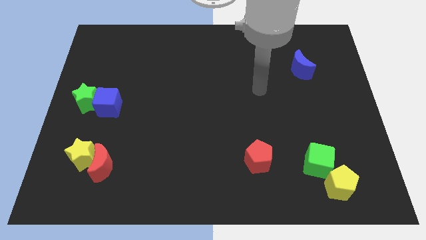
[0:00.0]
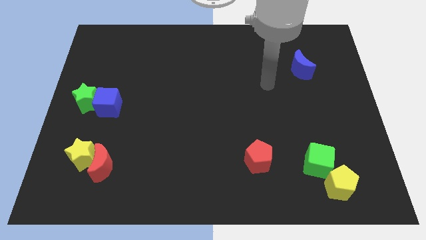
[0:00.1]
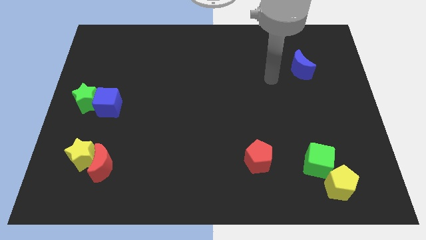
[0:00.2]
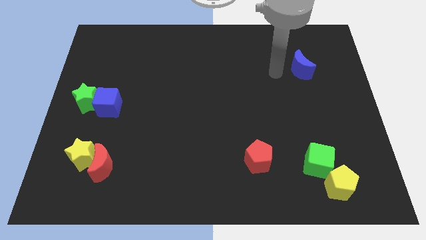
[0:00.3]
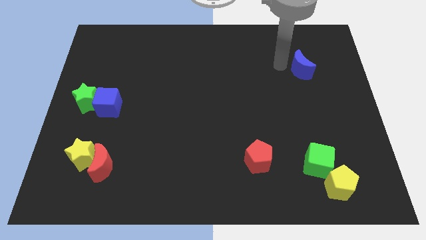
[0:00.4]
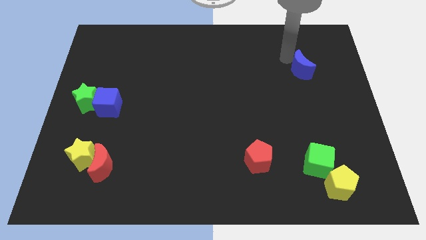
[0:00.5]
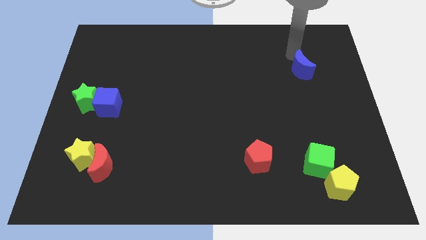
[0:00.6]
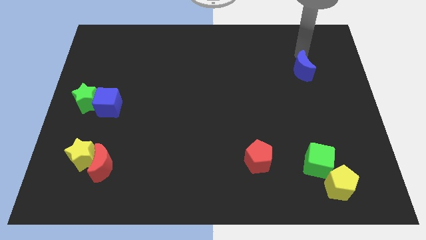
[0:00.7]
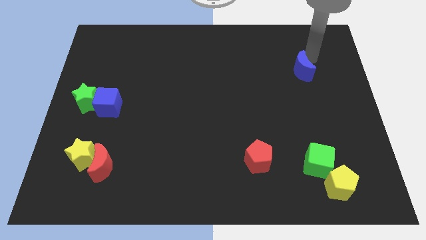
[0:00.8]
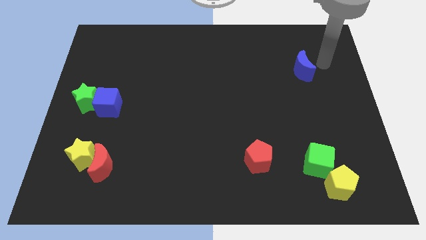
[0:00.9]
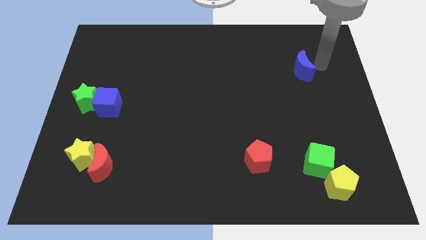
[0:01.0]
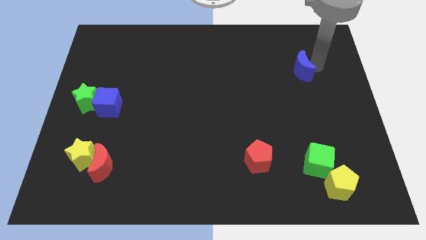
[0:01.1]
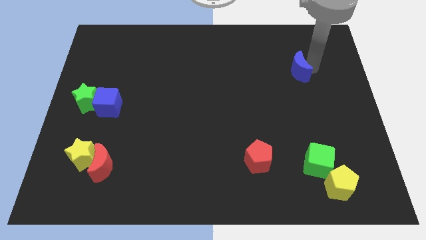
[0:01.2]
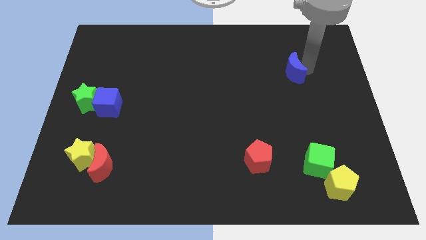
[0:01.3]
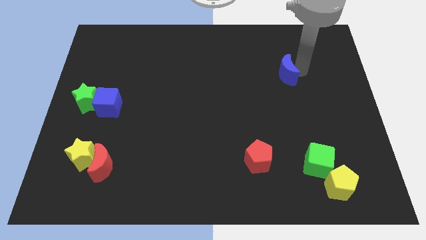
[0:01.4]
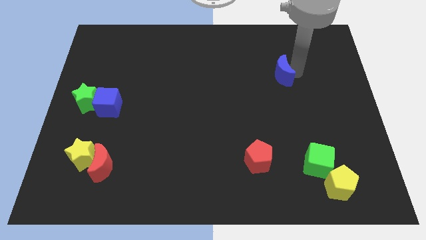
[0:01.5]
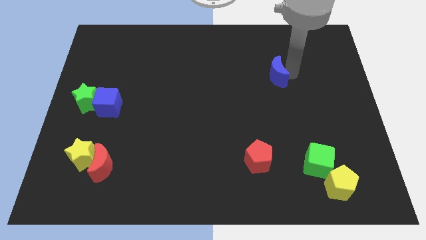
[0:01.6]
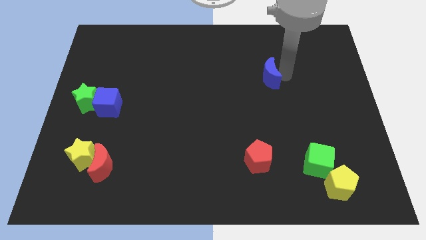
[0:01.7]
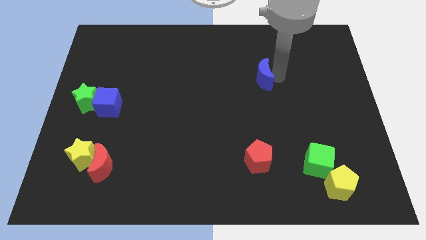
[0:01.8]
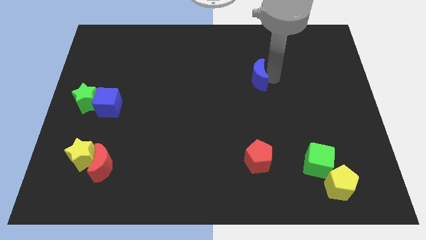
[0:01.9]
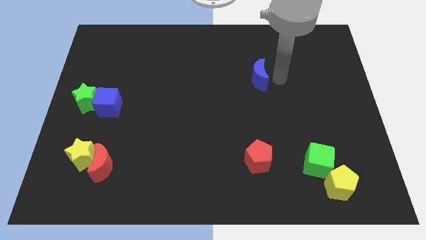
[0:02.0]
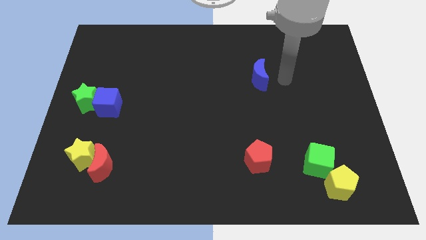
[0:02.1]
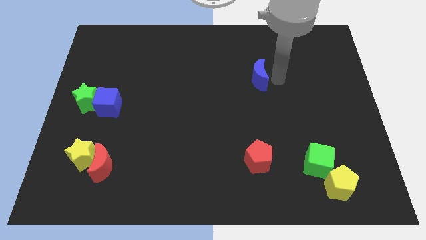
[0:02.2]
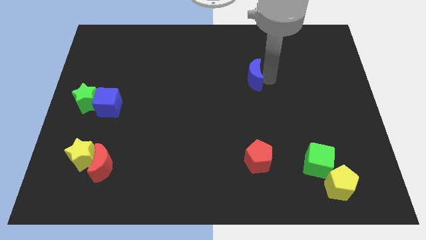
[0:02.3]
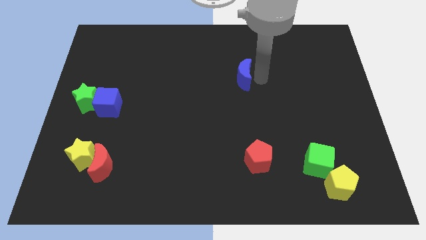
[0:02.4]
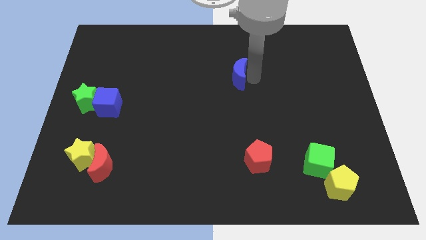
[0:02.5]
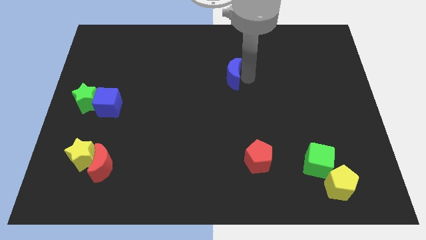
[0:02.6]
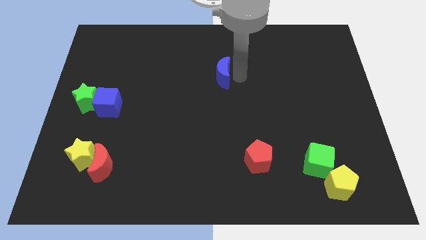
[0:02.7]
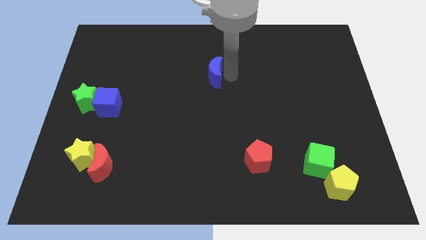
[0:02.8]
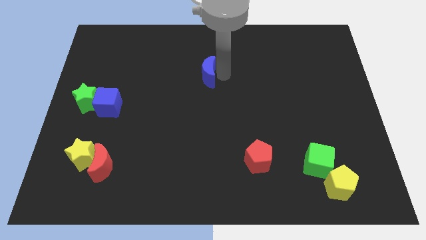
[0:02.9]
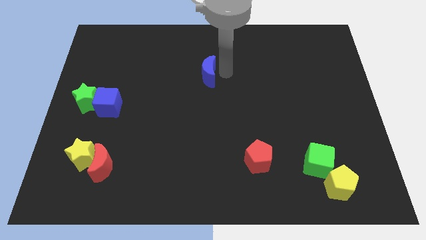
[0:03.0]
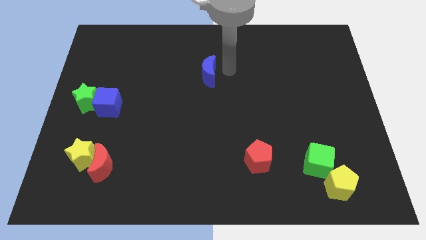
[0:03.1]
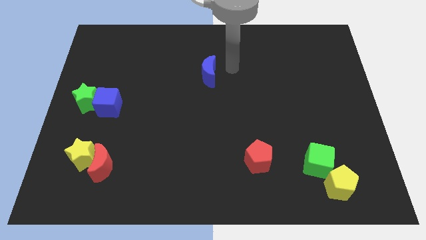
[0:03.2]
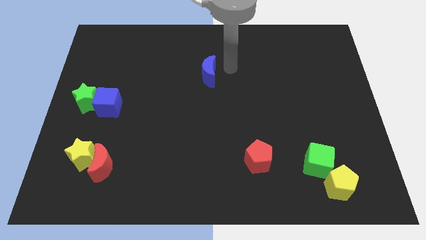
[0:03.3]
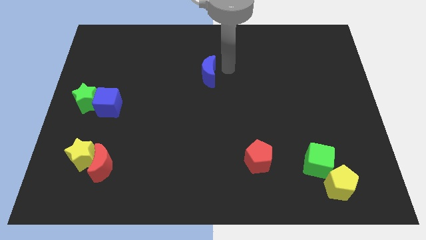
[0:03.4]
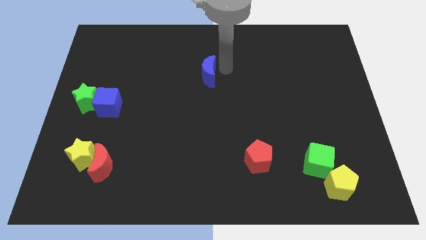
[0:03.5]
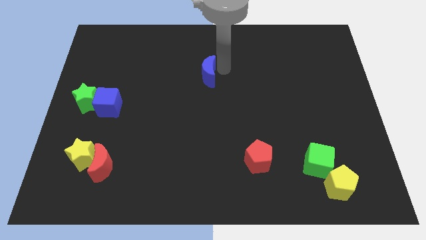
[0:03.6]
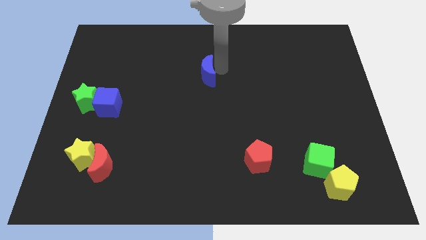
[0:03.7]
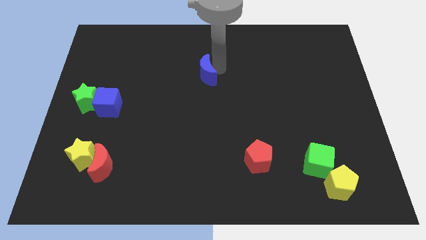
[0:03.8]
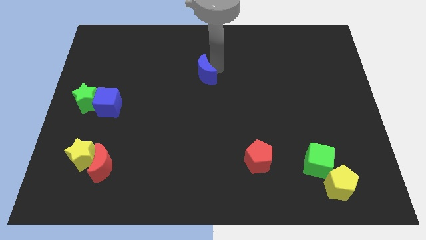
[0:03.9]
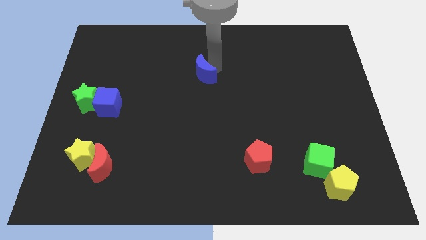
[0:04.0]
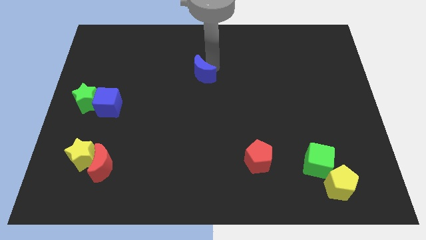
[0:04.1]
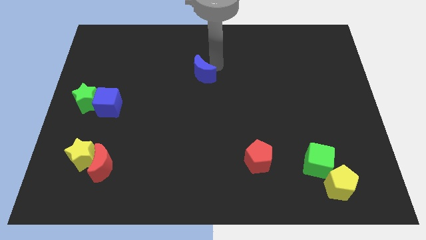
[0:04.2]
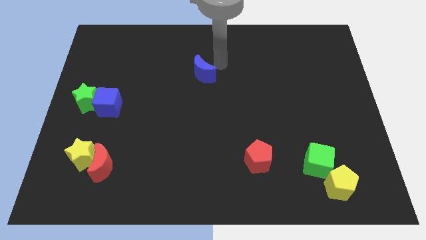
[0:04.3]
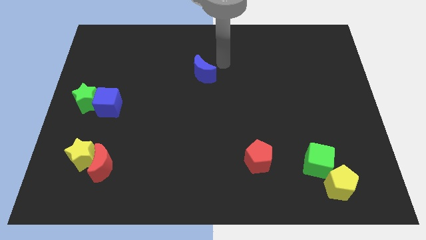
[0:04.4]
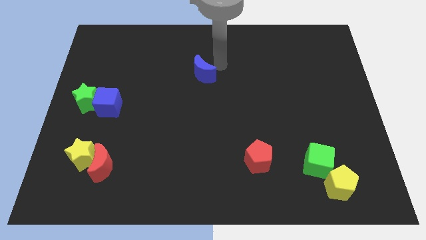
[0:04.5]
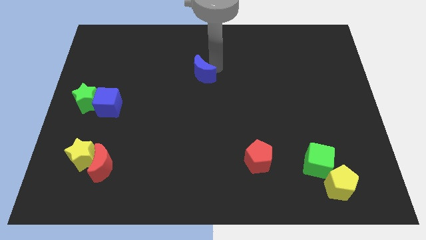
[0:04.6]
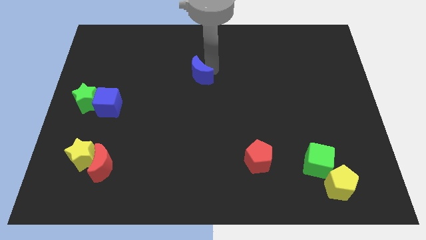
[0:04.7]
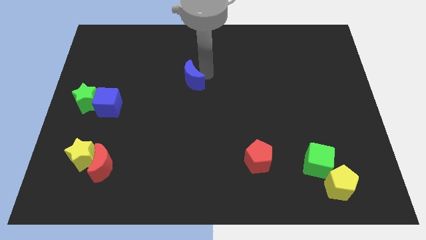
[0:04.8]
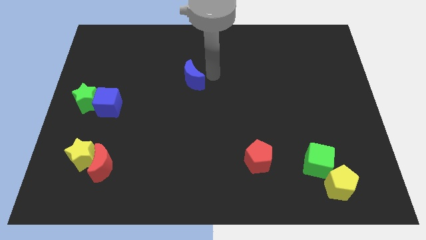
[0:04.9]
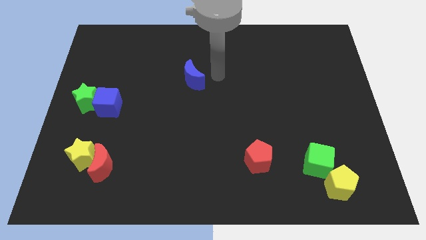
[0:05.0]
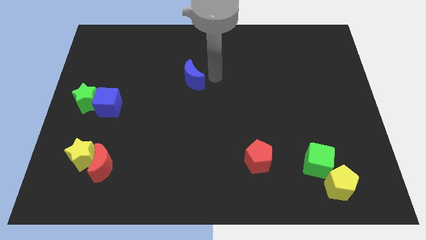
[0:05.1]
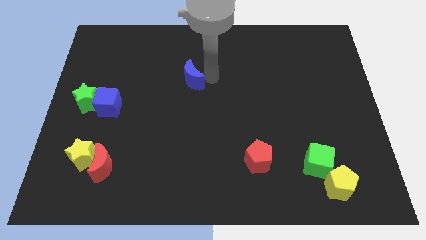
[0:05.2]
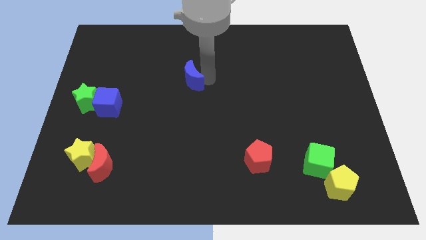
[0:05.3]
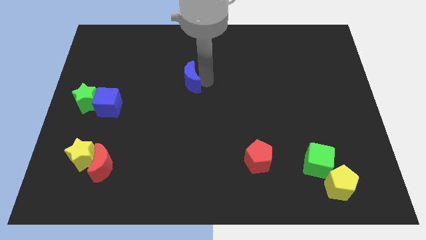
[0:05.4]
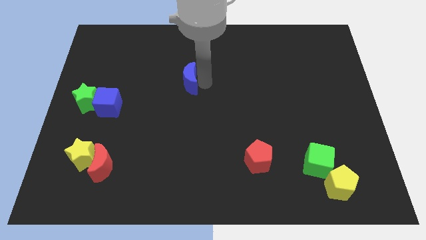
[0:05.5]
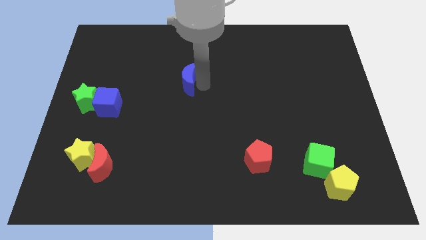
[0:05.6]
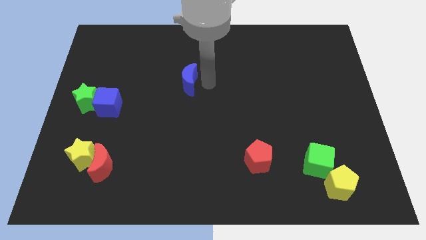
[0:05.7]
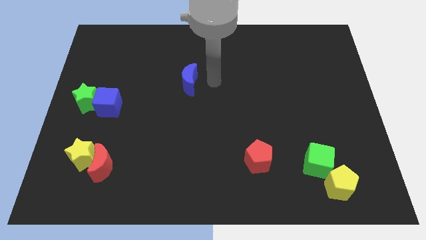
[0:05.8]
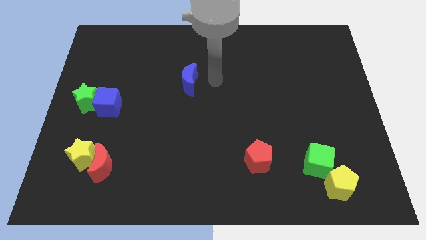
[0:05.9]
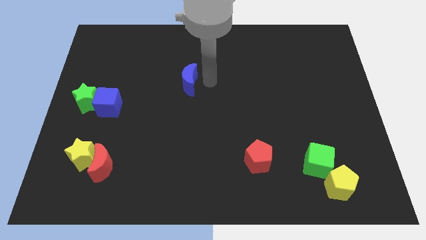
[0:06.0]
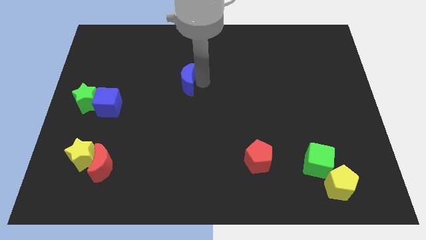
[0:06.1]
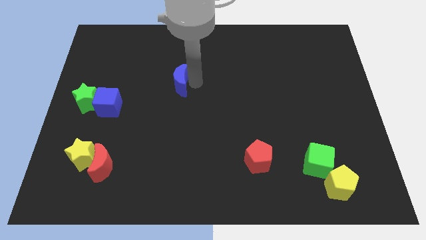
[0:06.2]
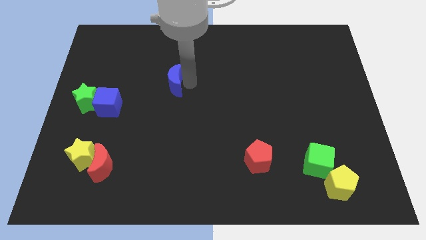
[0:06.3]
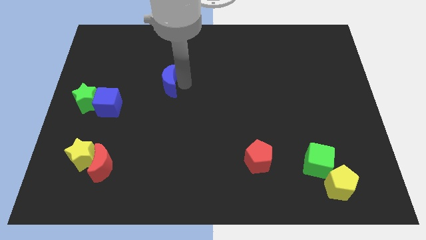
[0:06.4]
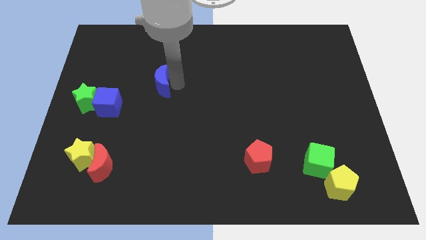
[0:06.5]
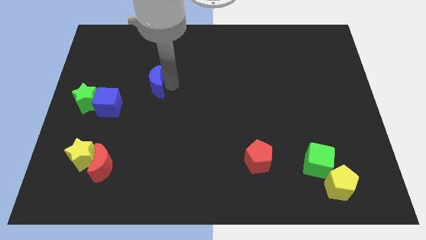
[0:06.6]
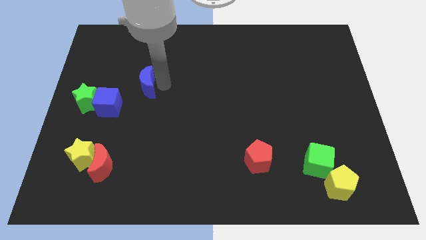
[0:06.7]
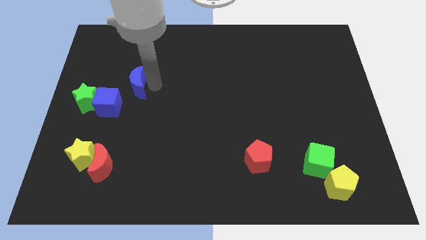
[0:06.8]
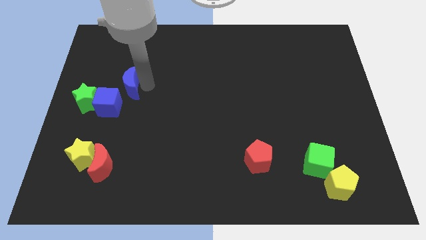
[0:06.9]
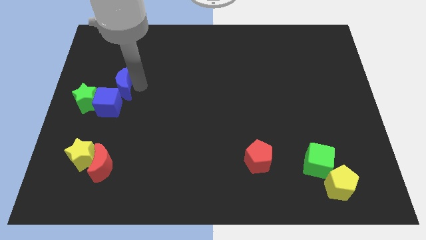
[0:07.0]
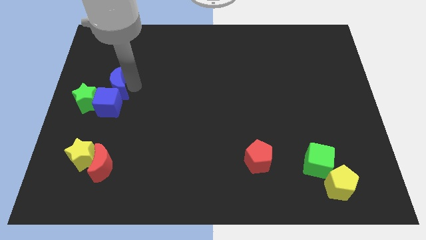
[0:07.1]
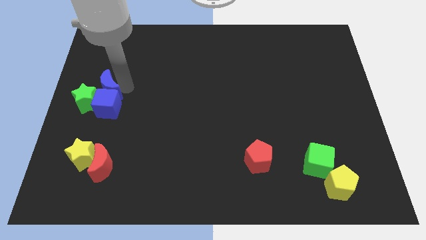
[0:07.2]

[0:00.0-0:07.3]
move the blue moon to the left side
